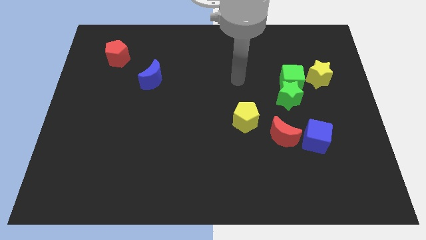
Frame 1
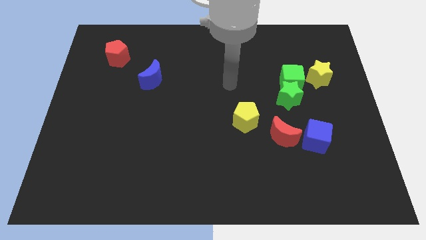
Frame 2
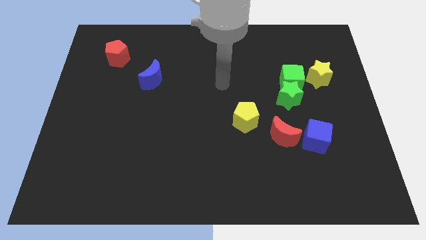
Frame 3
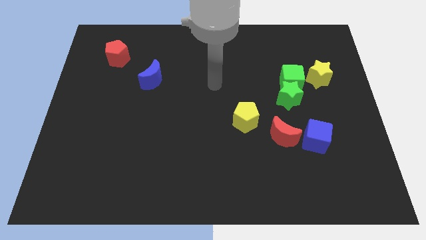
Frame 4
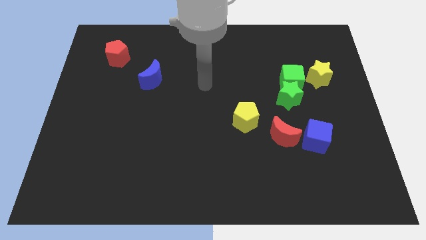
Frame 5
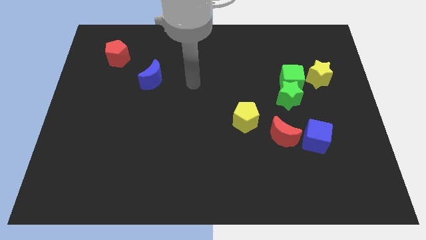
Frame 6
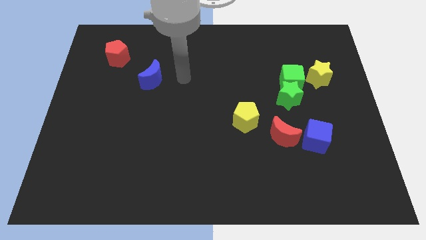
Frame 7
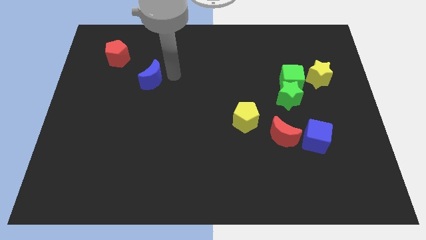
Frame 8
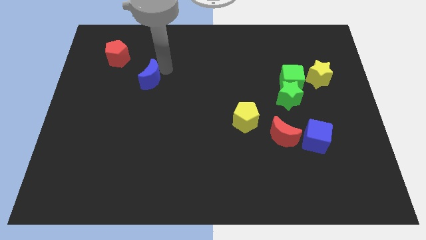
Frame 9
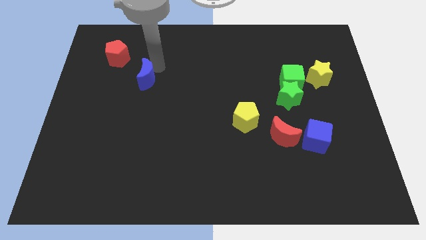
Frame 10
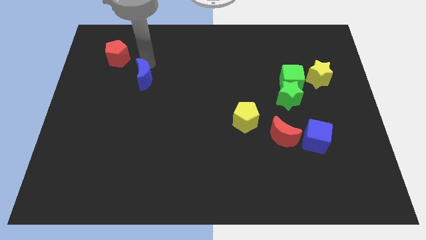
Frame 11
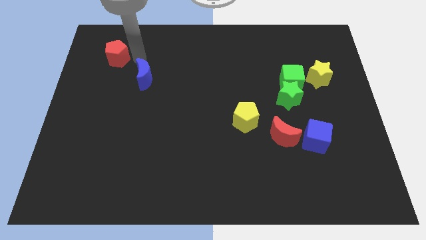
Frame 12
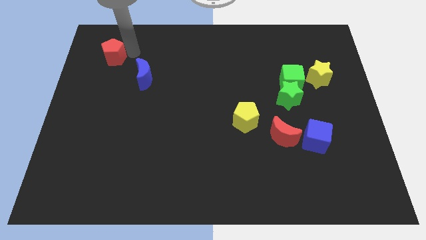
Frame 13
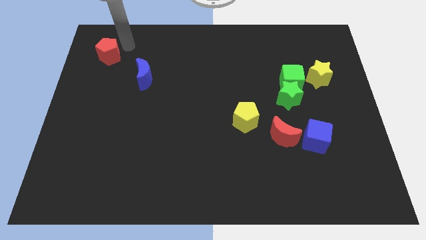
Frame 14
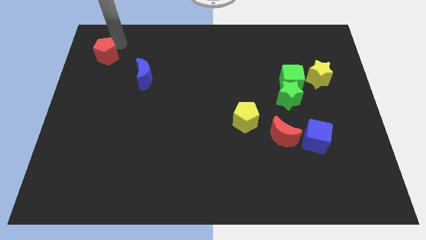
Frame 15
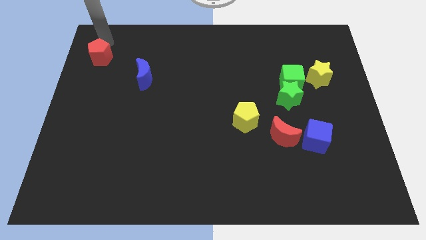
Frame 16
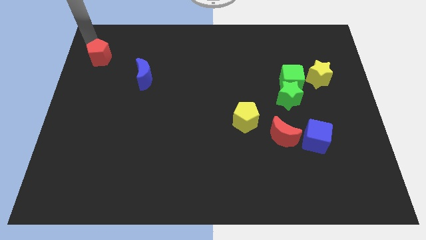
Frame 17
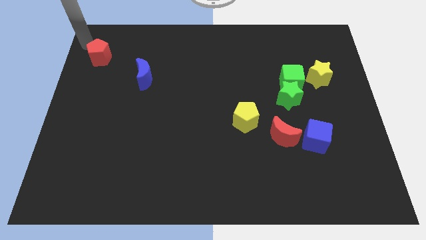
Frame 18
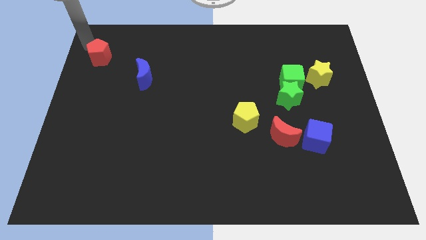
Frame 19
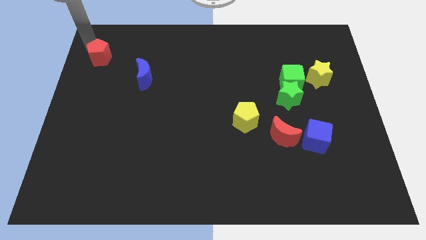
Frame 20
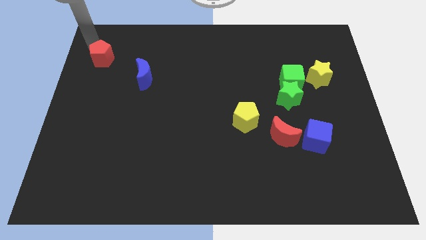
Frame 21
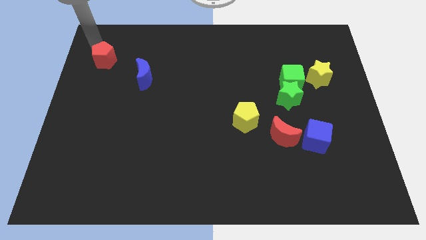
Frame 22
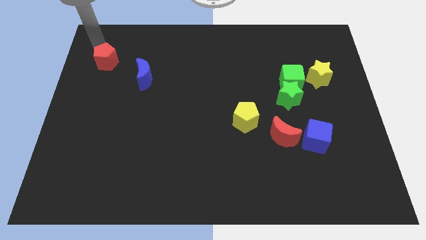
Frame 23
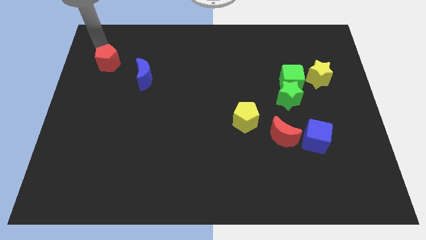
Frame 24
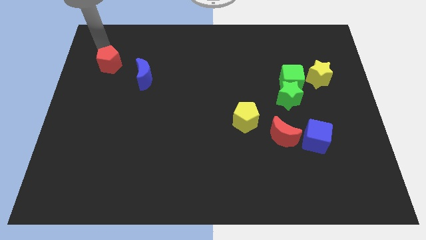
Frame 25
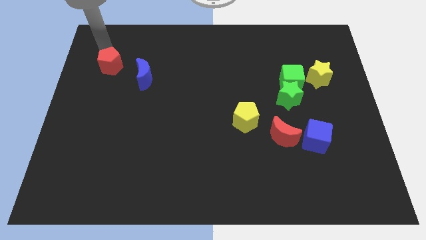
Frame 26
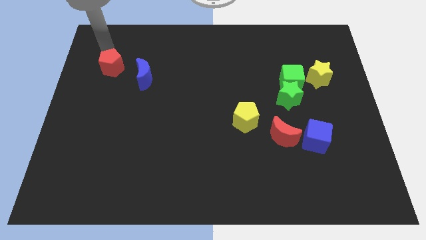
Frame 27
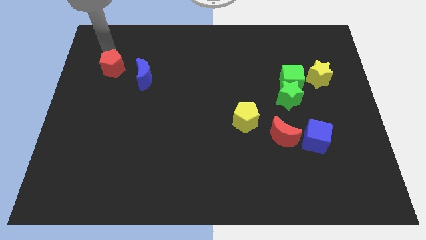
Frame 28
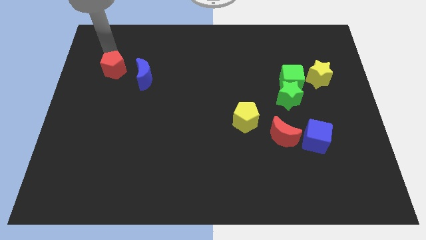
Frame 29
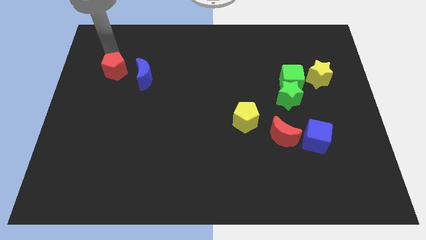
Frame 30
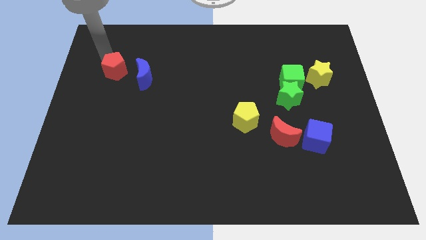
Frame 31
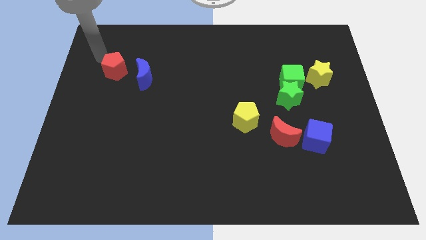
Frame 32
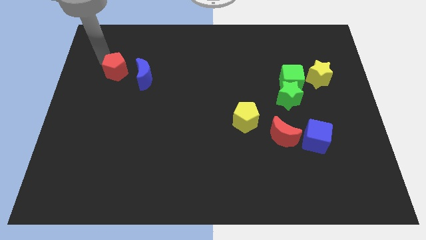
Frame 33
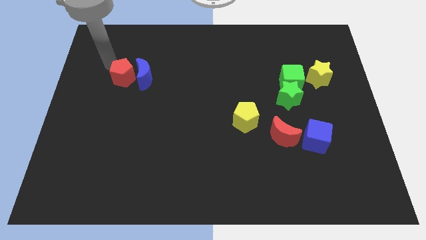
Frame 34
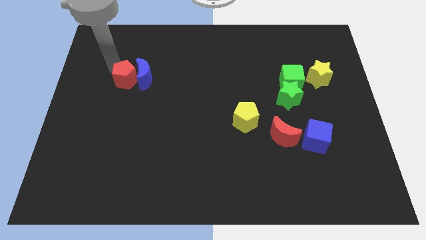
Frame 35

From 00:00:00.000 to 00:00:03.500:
move the red pentagon a little downwards and right

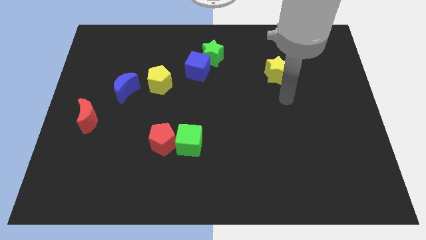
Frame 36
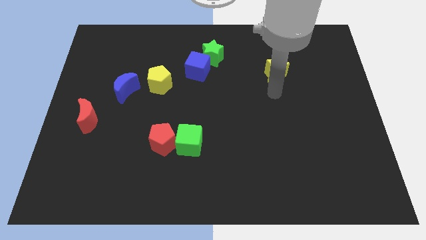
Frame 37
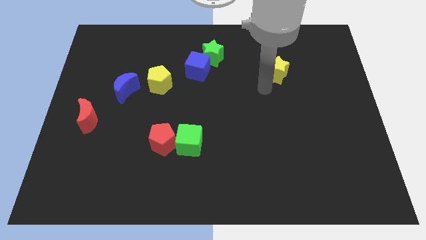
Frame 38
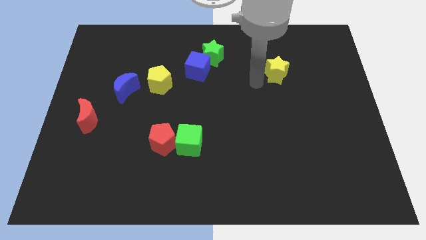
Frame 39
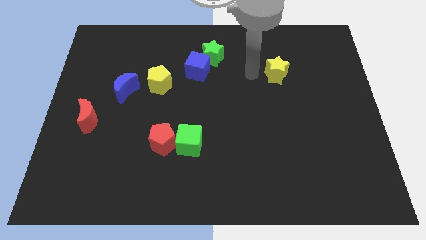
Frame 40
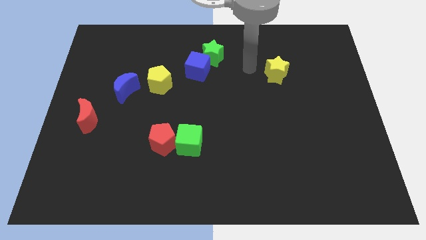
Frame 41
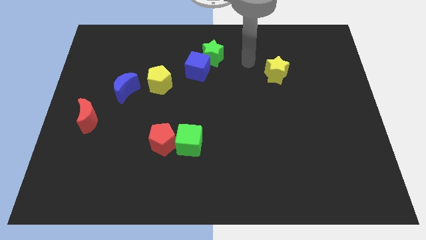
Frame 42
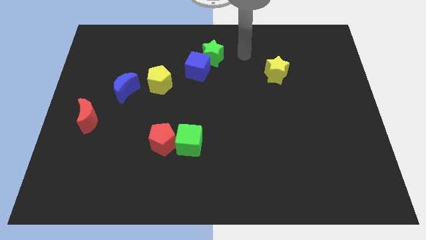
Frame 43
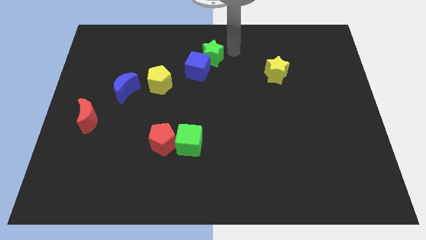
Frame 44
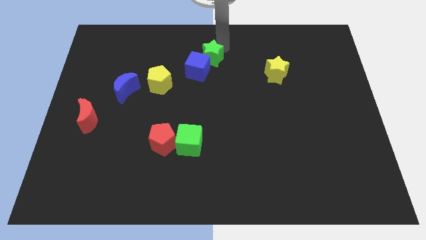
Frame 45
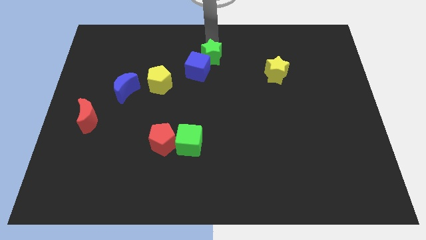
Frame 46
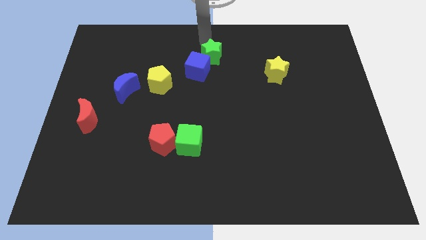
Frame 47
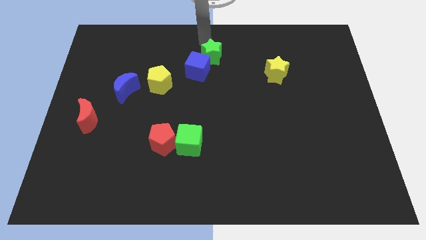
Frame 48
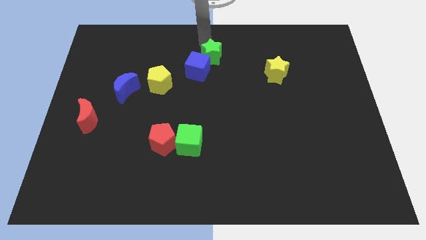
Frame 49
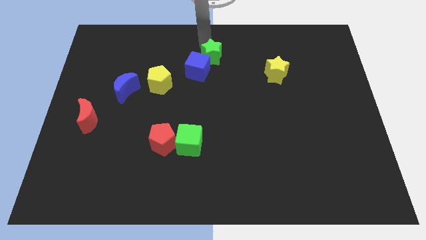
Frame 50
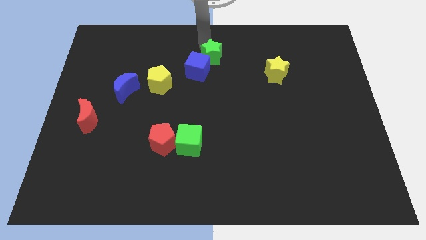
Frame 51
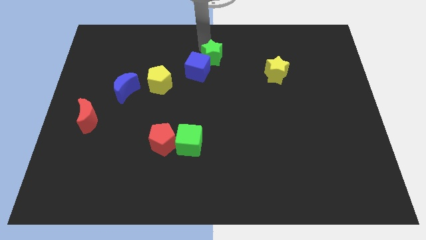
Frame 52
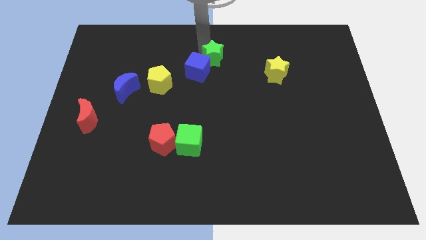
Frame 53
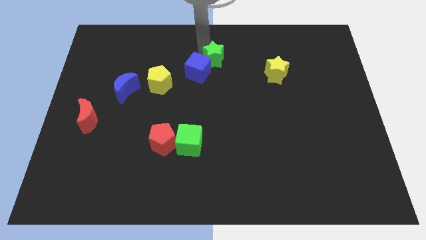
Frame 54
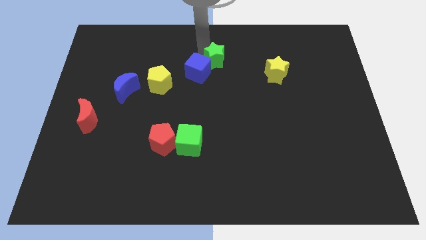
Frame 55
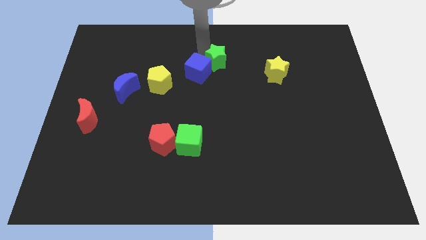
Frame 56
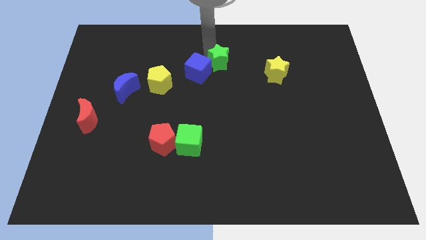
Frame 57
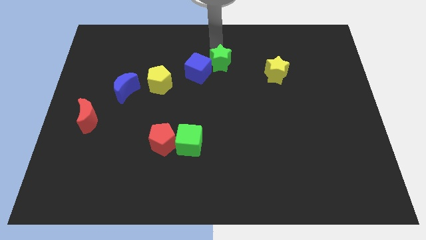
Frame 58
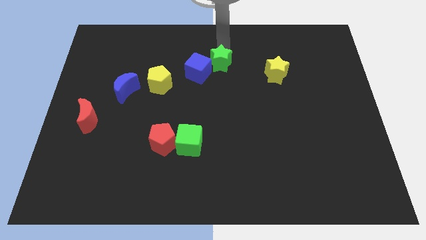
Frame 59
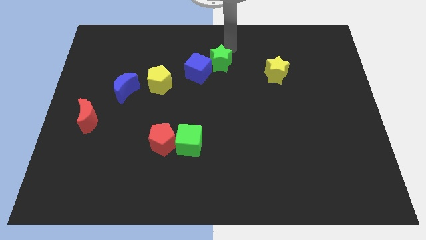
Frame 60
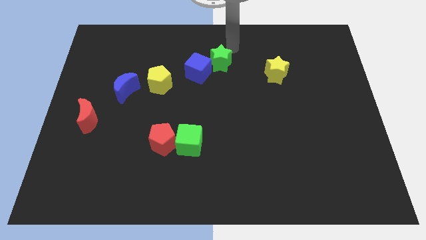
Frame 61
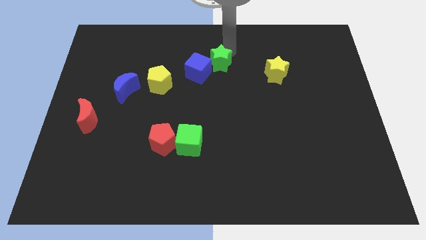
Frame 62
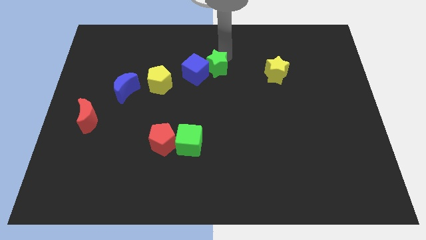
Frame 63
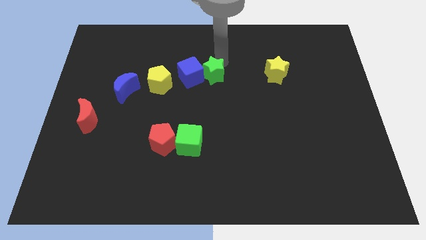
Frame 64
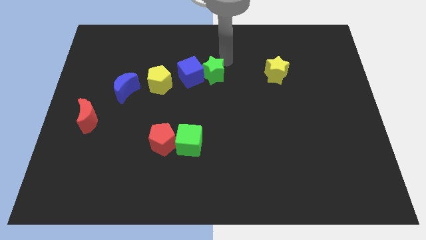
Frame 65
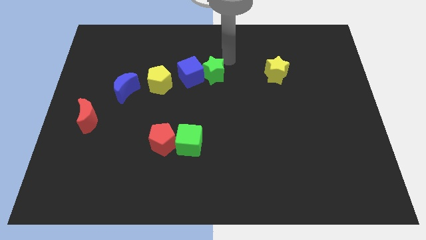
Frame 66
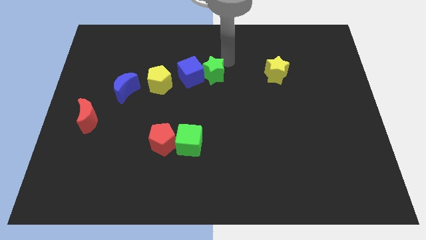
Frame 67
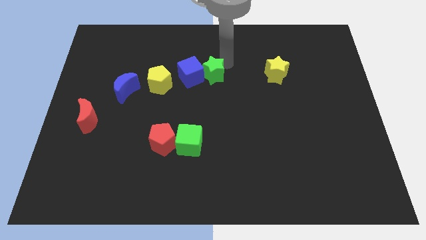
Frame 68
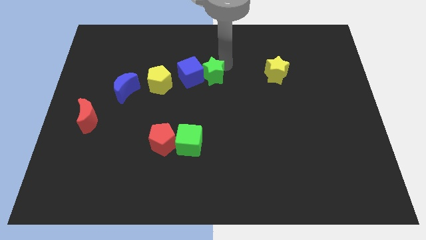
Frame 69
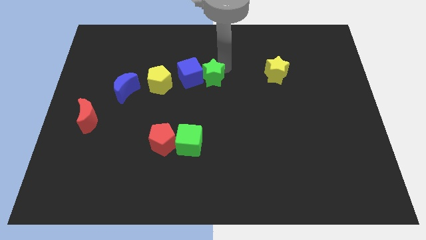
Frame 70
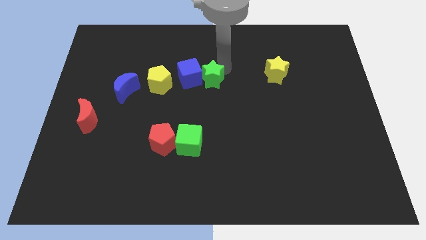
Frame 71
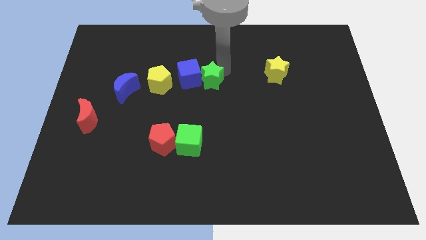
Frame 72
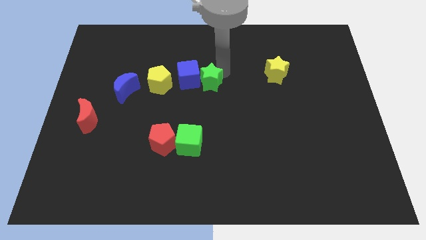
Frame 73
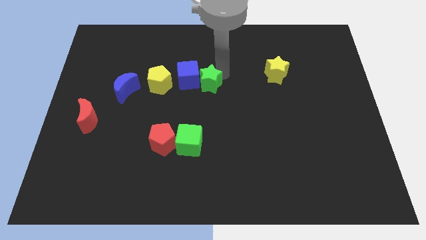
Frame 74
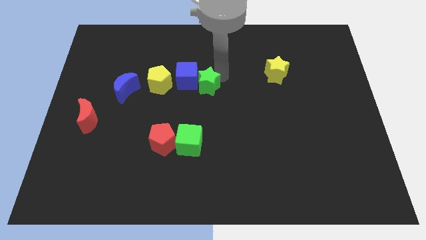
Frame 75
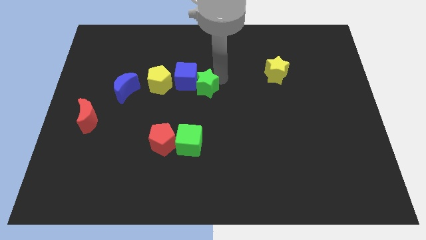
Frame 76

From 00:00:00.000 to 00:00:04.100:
slightly slide the green star down and then to the left

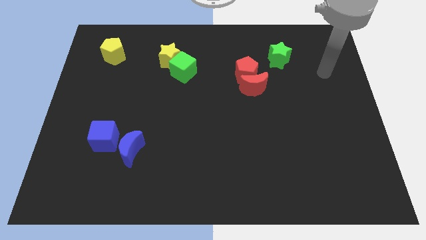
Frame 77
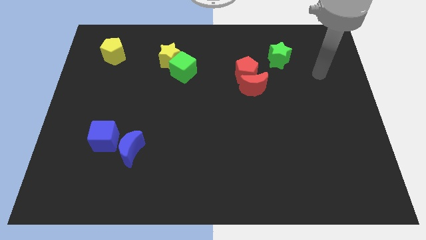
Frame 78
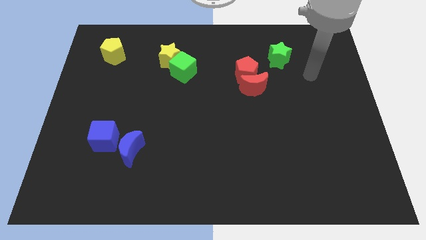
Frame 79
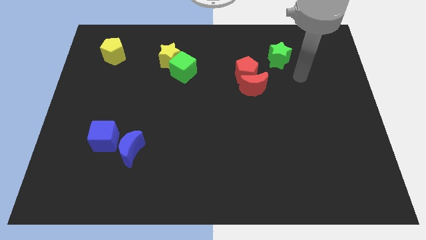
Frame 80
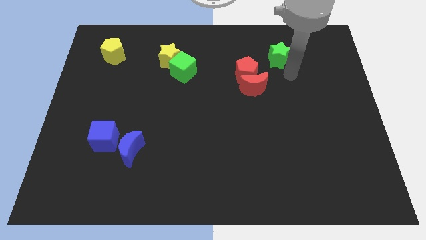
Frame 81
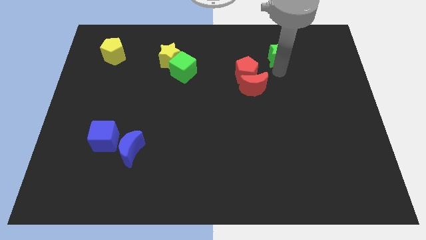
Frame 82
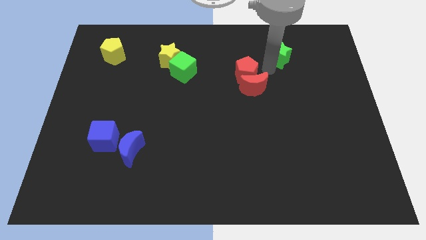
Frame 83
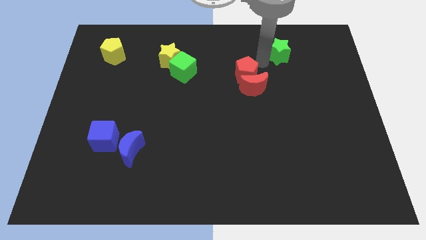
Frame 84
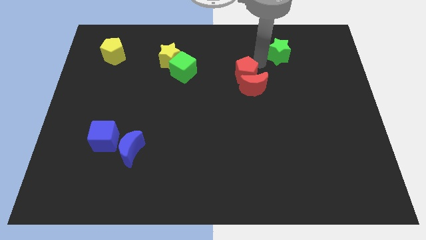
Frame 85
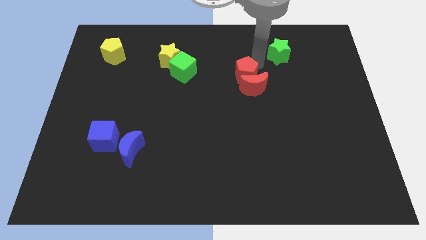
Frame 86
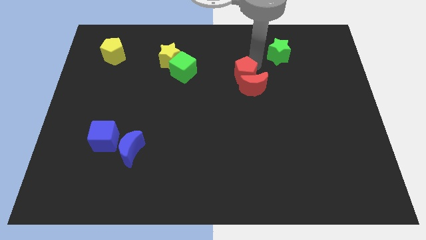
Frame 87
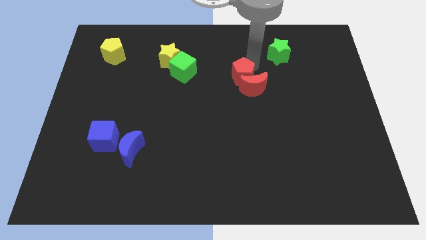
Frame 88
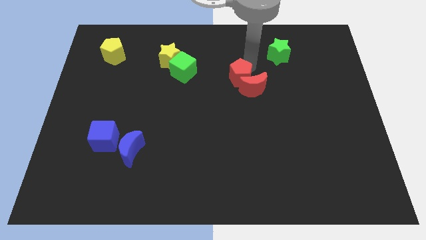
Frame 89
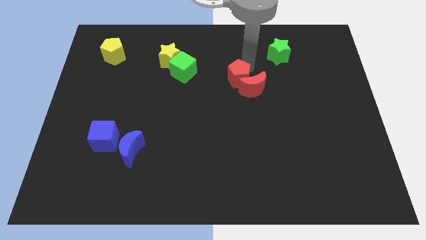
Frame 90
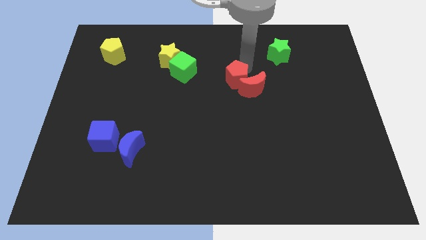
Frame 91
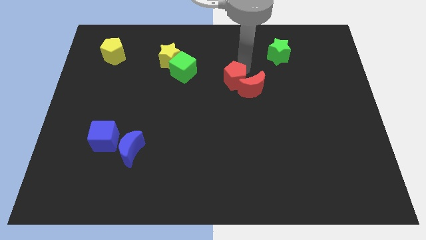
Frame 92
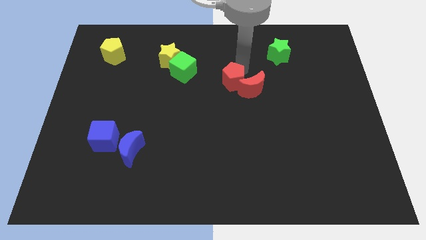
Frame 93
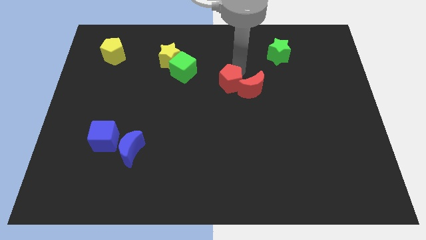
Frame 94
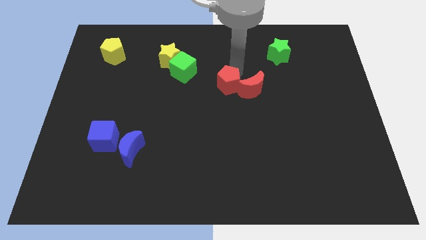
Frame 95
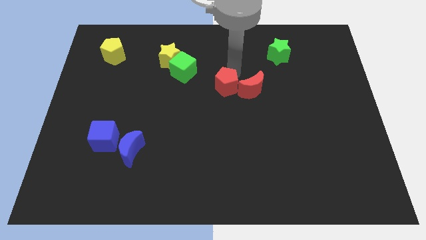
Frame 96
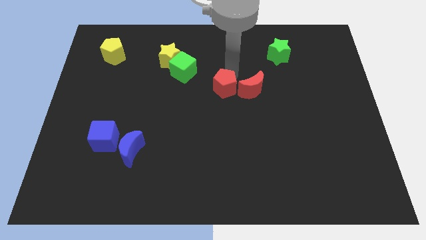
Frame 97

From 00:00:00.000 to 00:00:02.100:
slightly slide the red pentagon down and left
